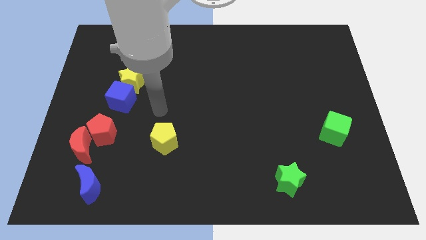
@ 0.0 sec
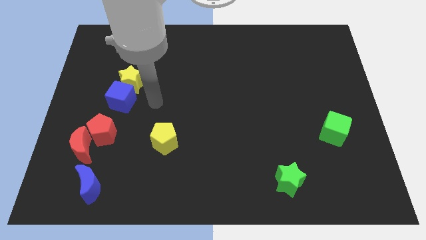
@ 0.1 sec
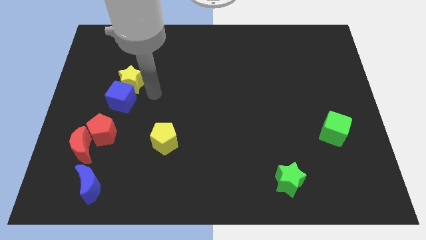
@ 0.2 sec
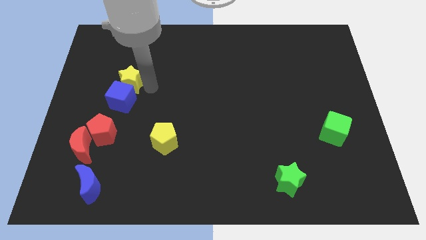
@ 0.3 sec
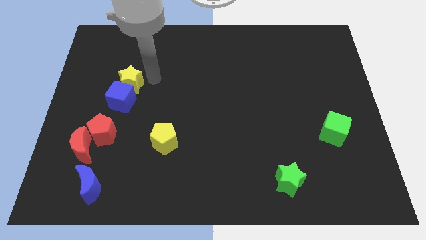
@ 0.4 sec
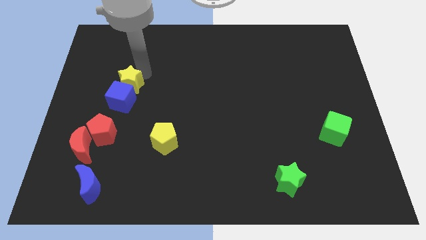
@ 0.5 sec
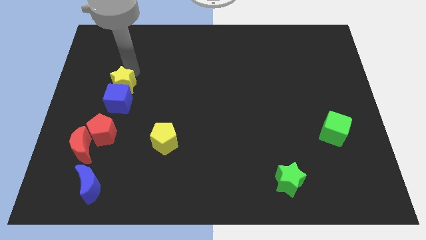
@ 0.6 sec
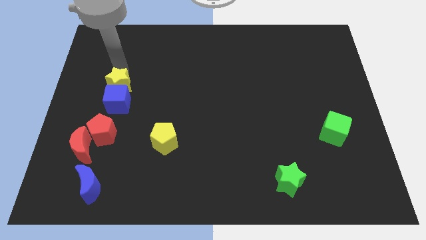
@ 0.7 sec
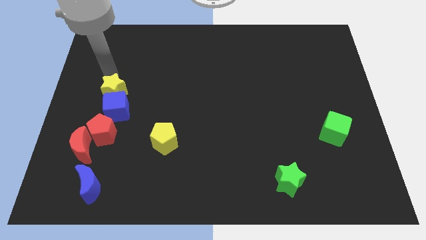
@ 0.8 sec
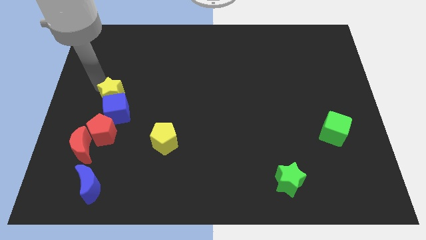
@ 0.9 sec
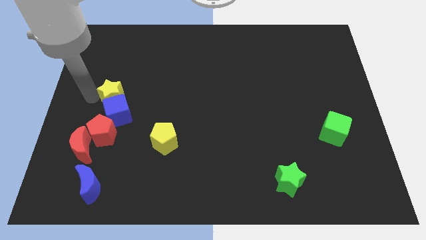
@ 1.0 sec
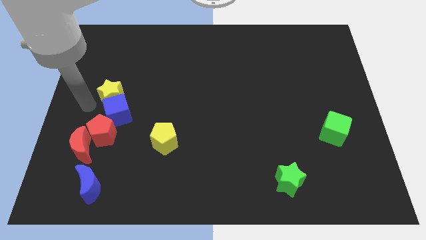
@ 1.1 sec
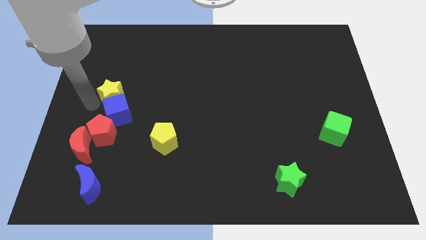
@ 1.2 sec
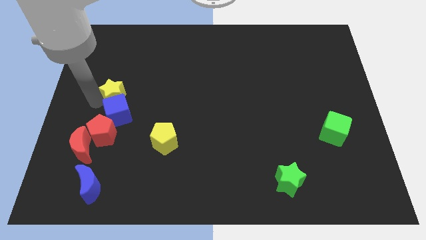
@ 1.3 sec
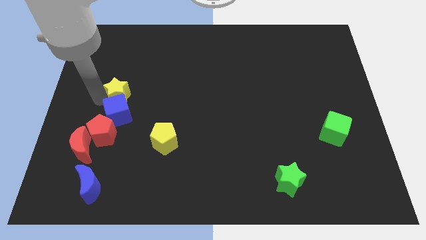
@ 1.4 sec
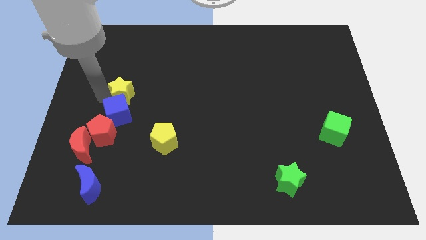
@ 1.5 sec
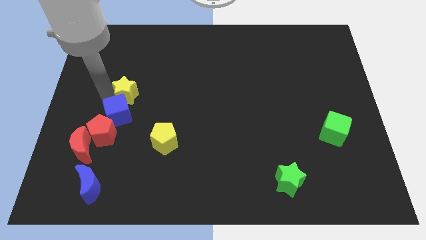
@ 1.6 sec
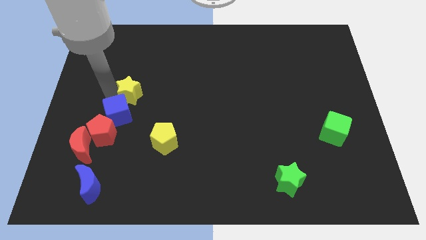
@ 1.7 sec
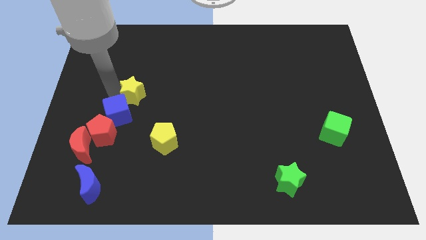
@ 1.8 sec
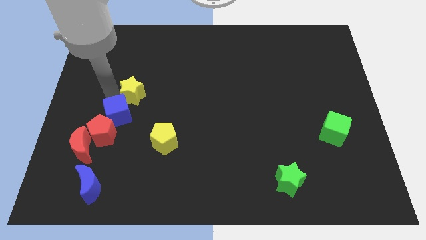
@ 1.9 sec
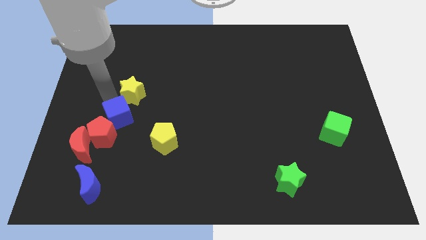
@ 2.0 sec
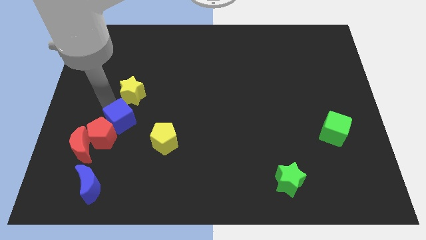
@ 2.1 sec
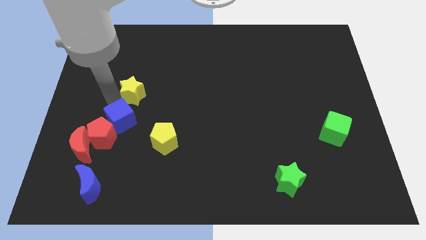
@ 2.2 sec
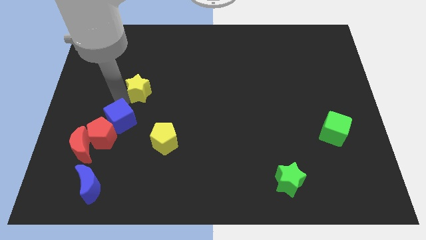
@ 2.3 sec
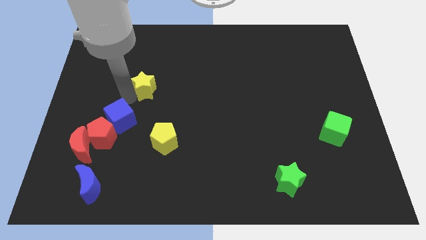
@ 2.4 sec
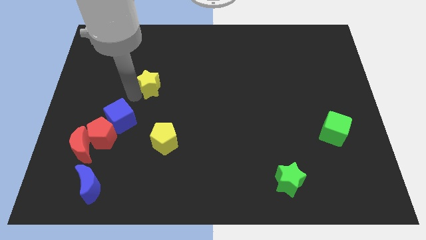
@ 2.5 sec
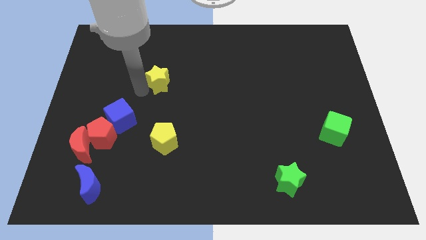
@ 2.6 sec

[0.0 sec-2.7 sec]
slightly push the yellow star right

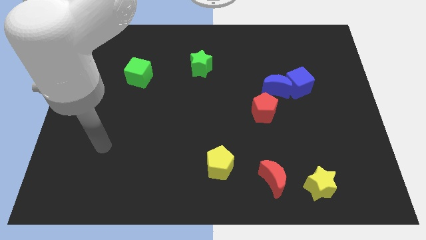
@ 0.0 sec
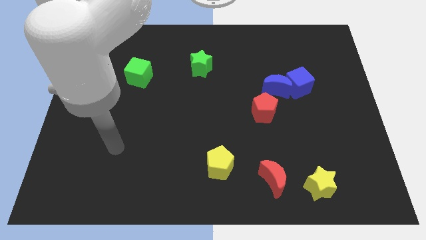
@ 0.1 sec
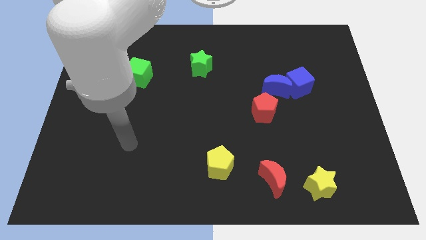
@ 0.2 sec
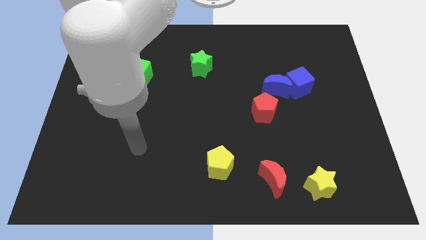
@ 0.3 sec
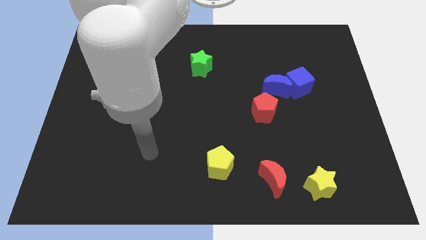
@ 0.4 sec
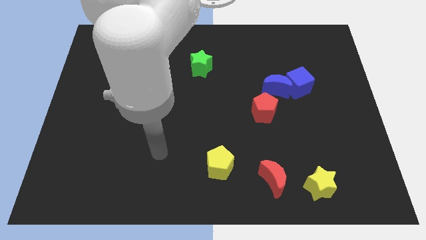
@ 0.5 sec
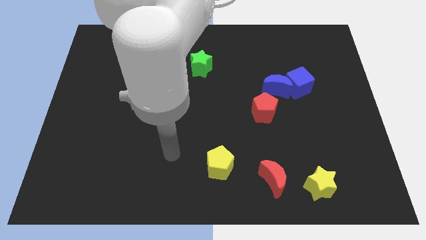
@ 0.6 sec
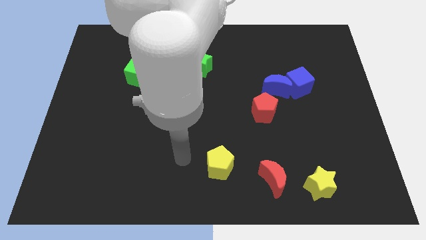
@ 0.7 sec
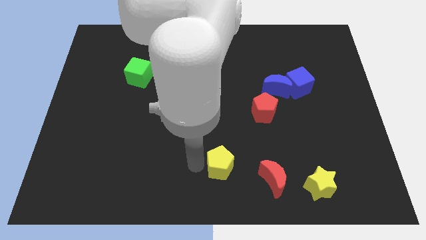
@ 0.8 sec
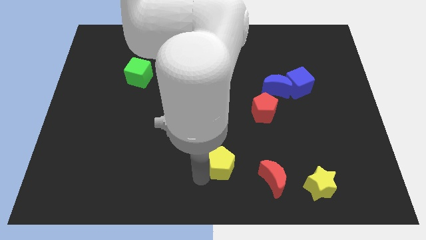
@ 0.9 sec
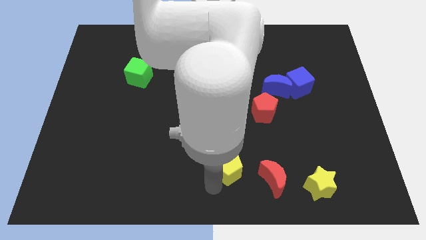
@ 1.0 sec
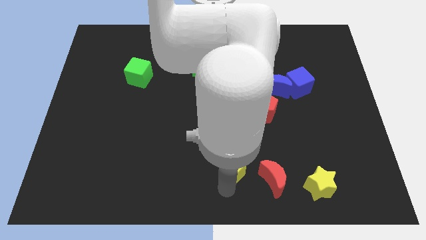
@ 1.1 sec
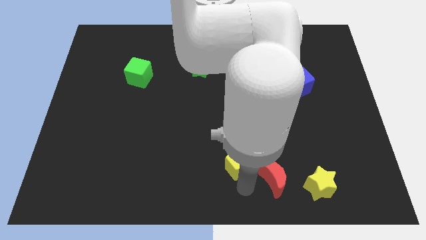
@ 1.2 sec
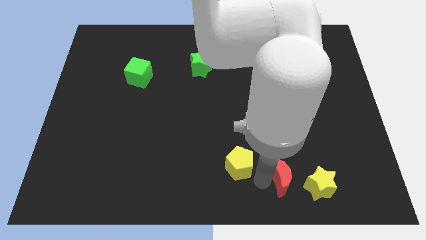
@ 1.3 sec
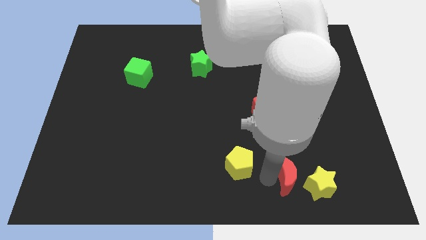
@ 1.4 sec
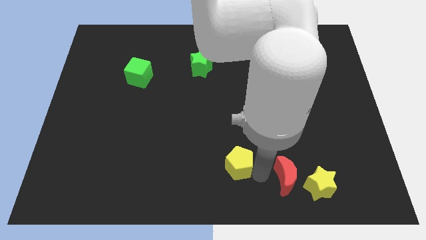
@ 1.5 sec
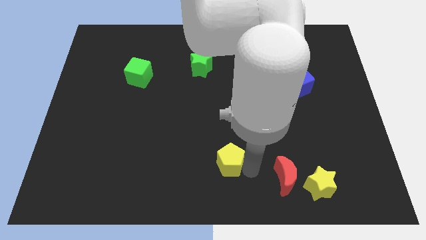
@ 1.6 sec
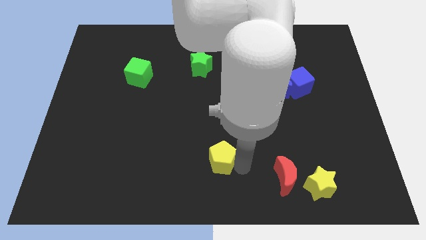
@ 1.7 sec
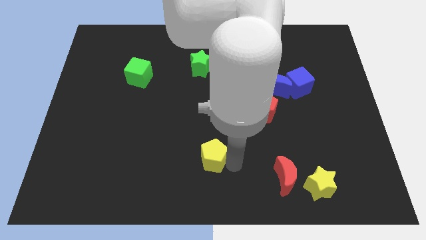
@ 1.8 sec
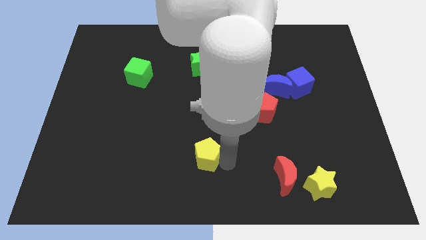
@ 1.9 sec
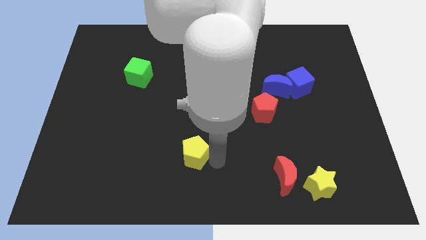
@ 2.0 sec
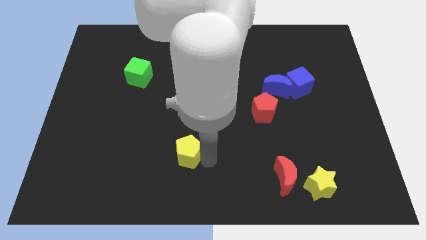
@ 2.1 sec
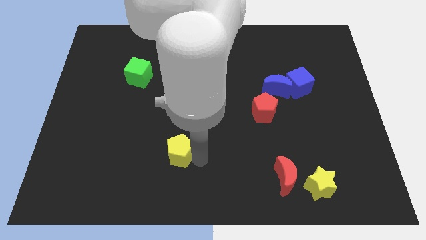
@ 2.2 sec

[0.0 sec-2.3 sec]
move the yellow pentagon slightly up and to the left diagonally

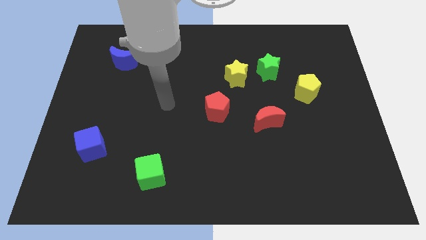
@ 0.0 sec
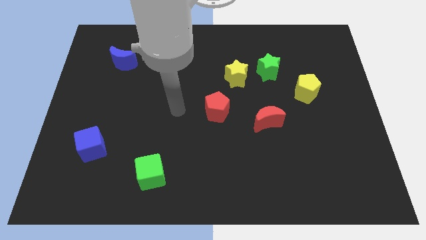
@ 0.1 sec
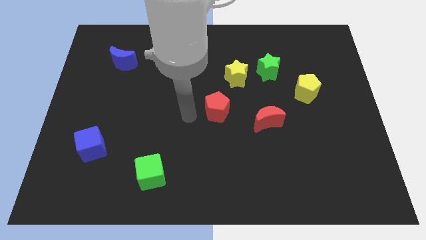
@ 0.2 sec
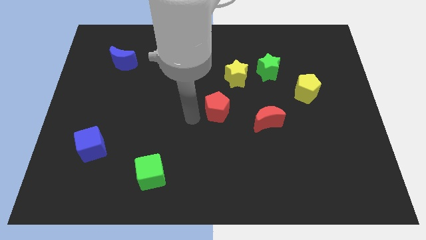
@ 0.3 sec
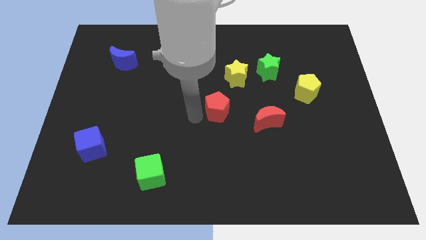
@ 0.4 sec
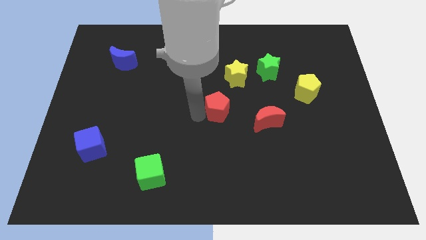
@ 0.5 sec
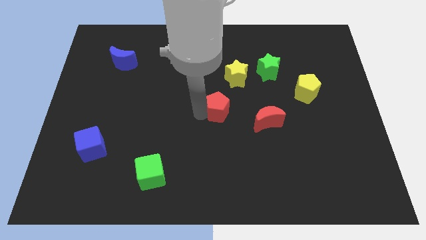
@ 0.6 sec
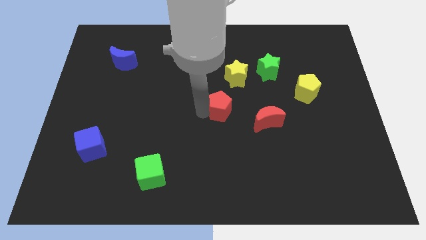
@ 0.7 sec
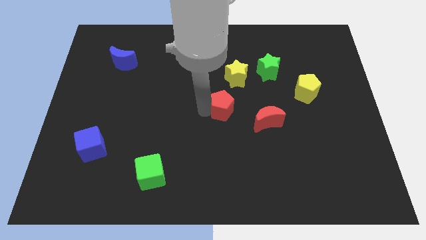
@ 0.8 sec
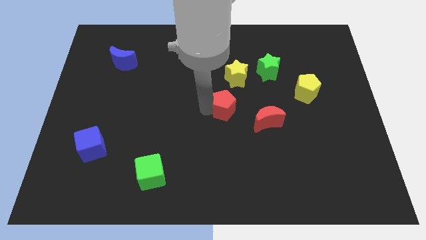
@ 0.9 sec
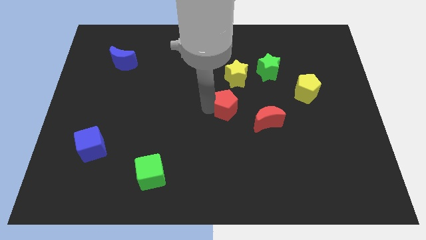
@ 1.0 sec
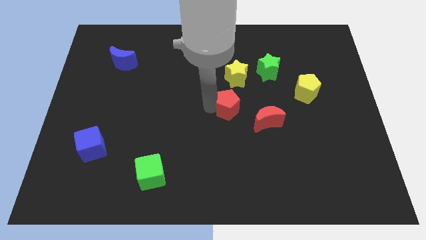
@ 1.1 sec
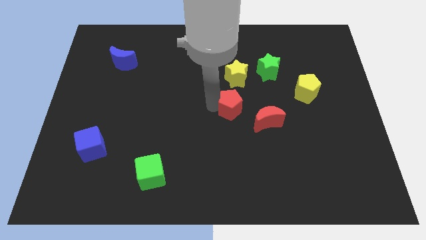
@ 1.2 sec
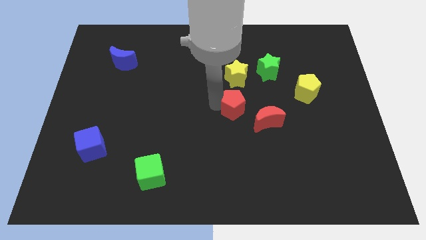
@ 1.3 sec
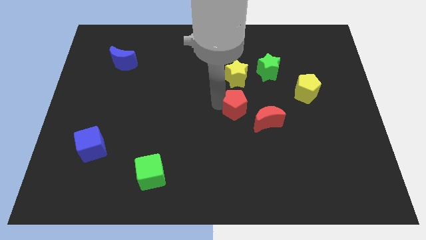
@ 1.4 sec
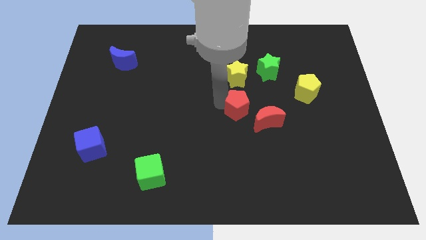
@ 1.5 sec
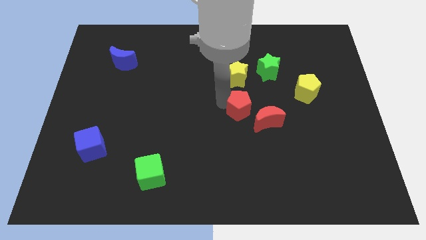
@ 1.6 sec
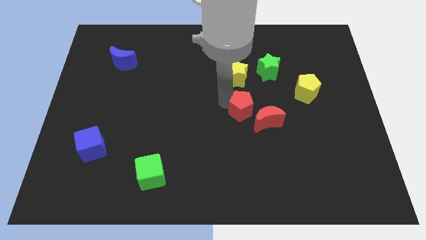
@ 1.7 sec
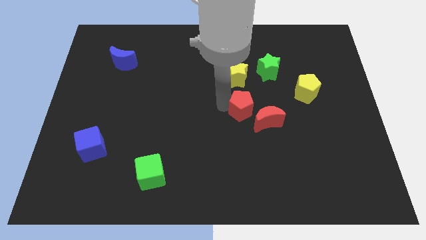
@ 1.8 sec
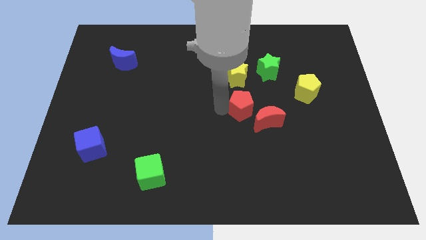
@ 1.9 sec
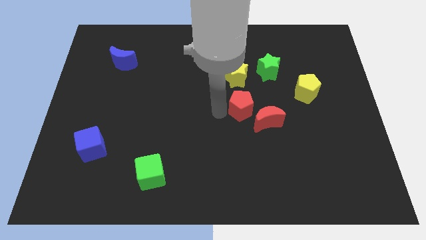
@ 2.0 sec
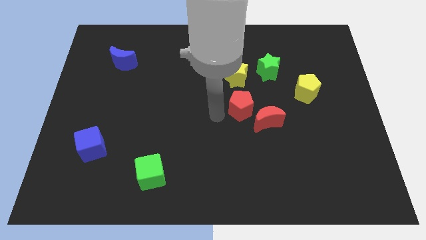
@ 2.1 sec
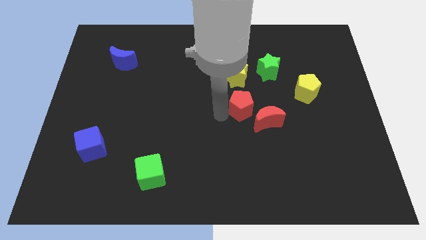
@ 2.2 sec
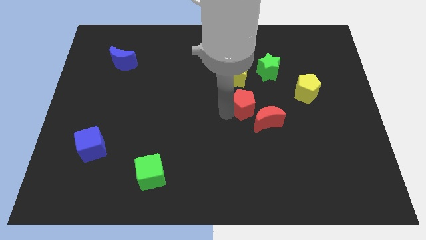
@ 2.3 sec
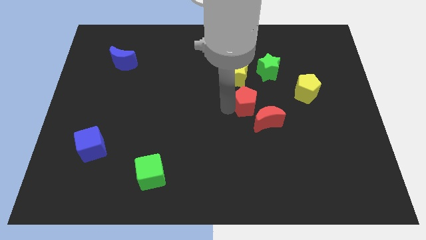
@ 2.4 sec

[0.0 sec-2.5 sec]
slightly slide the red pentagon right

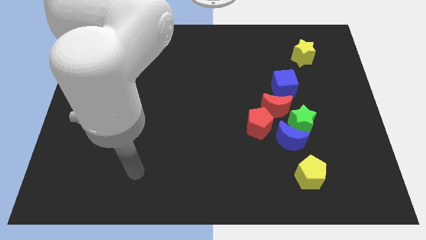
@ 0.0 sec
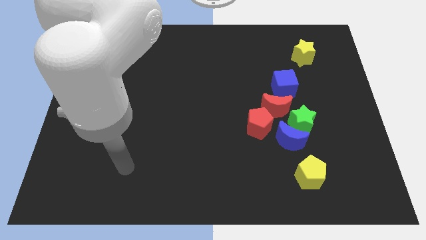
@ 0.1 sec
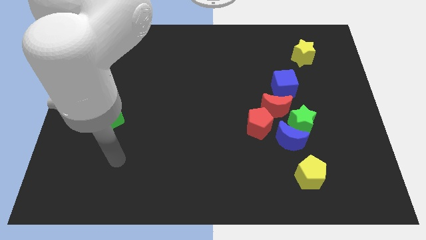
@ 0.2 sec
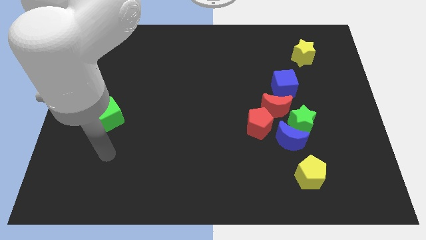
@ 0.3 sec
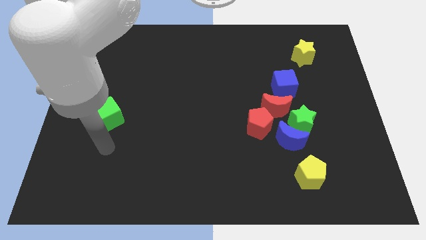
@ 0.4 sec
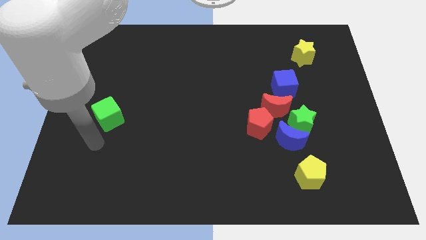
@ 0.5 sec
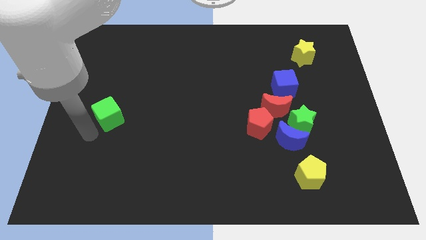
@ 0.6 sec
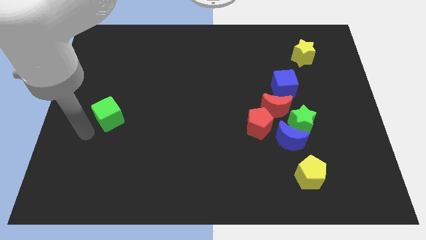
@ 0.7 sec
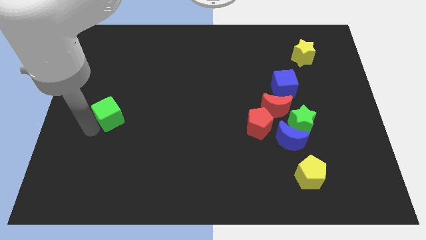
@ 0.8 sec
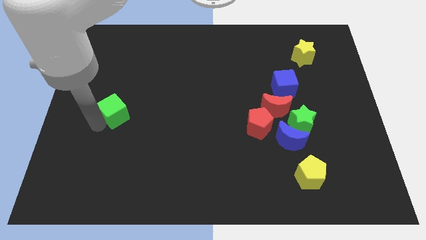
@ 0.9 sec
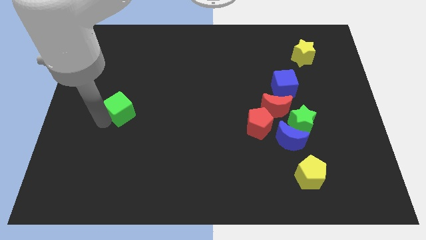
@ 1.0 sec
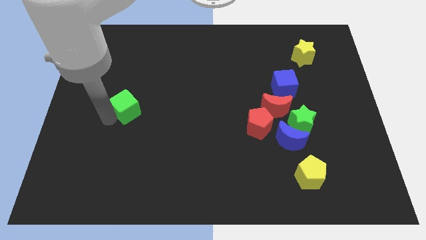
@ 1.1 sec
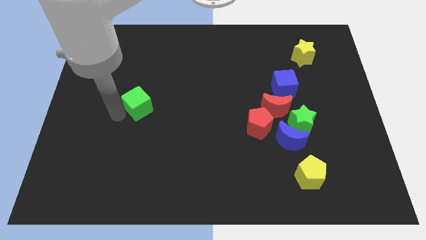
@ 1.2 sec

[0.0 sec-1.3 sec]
slightly push the green cube up and then right
